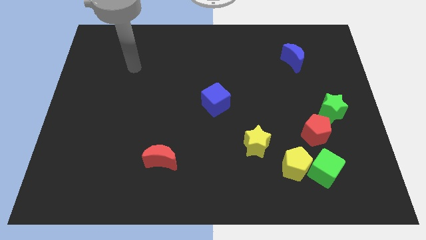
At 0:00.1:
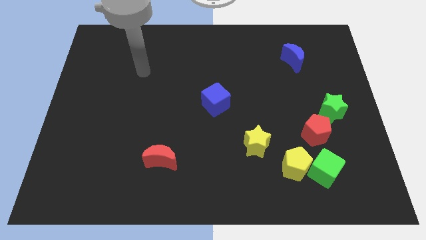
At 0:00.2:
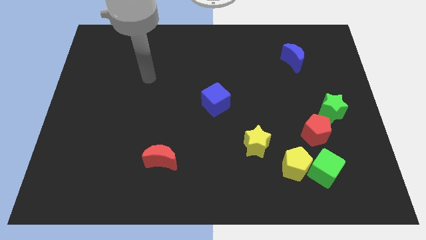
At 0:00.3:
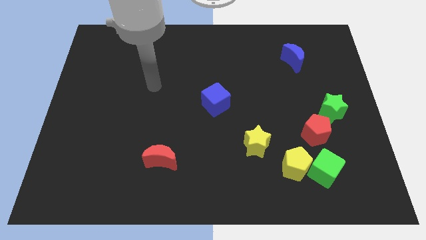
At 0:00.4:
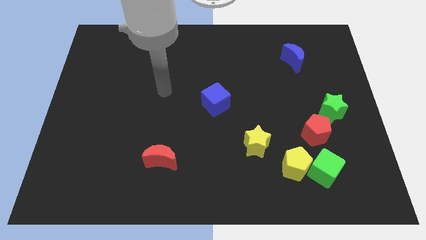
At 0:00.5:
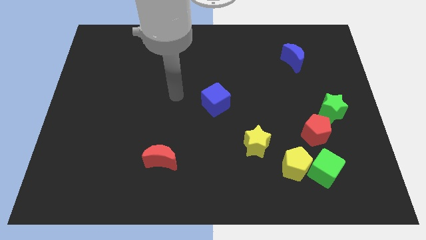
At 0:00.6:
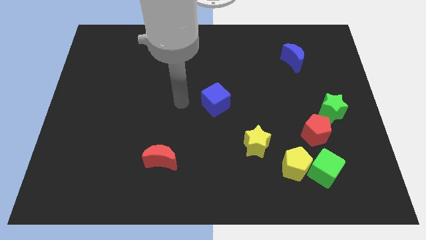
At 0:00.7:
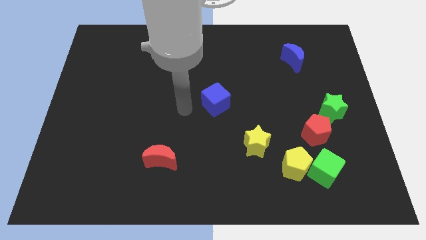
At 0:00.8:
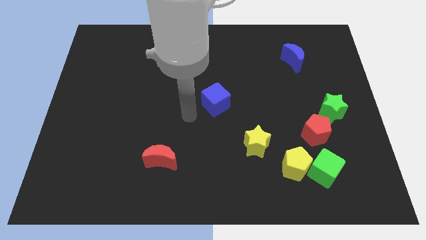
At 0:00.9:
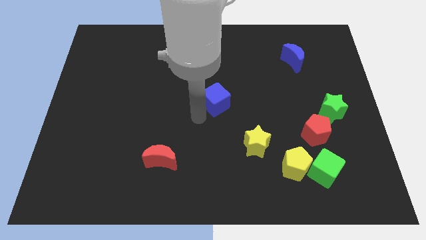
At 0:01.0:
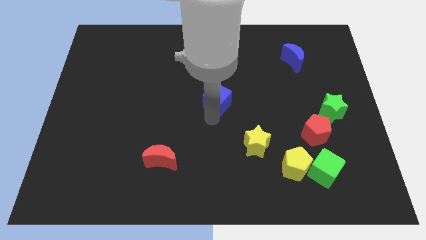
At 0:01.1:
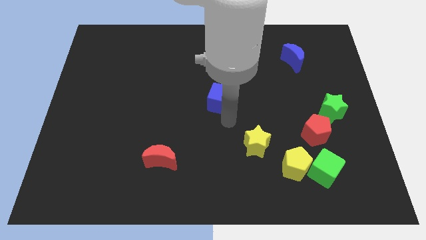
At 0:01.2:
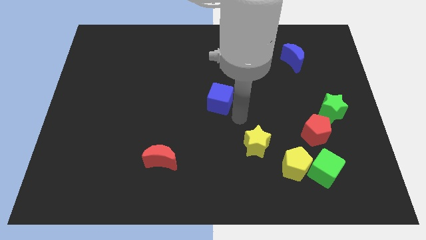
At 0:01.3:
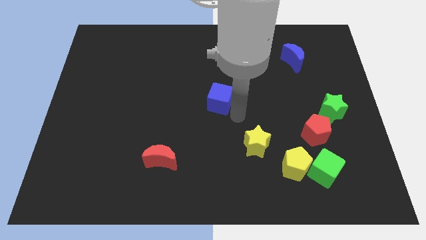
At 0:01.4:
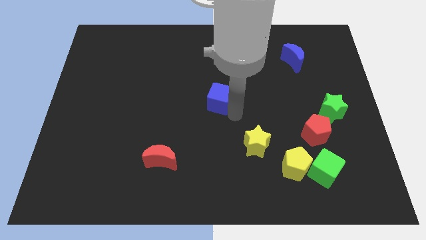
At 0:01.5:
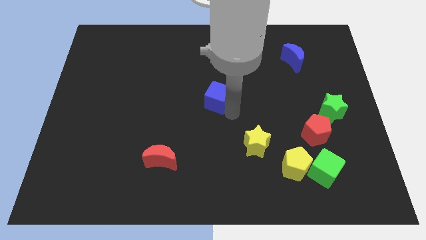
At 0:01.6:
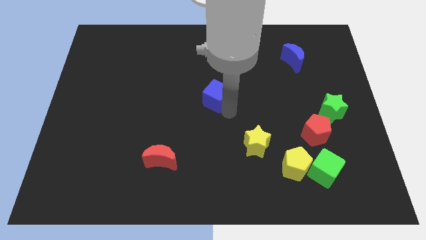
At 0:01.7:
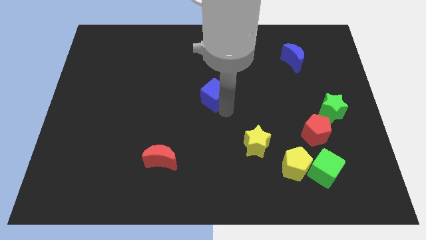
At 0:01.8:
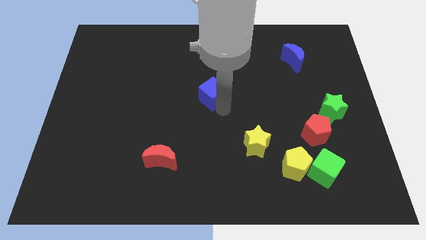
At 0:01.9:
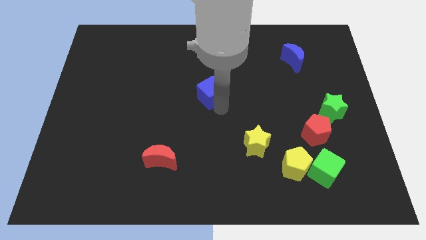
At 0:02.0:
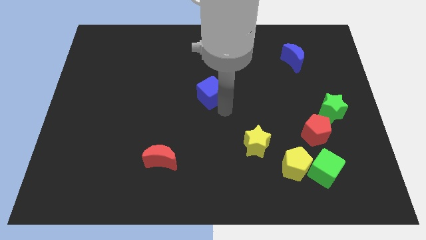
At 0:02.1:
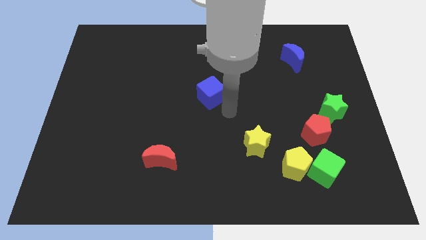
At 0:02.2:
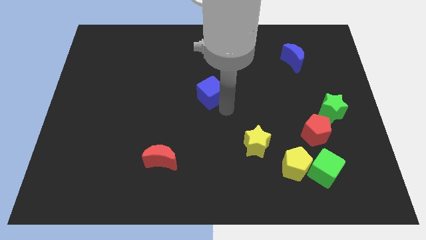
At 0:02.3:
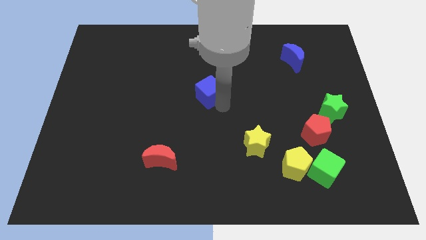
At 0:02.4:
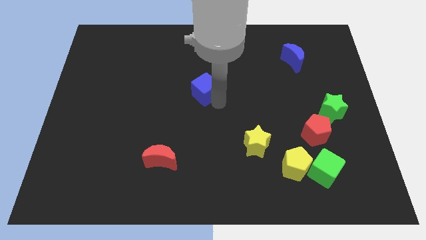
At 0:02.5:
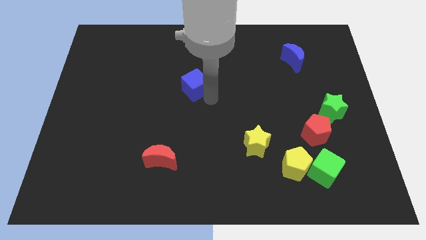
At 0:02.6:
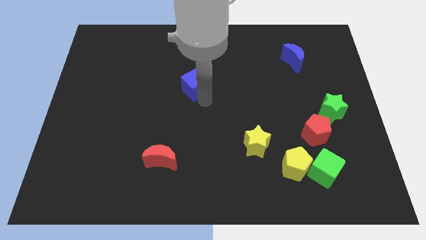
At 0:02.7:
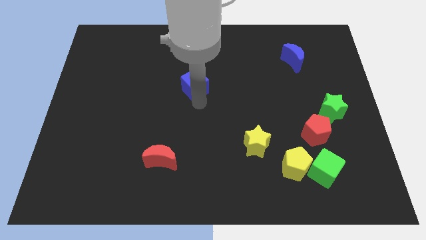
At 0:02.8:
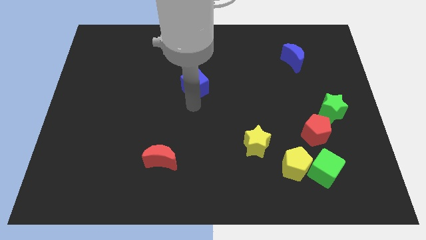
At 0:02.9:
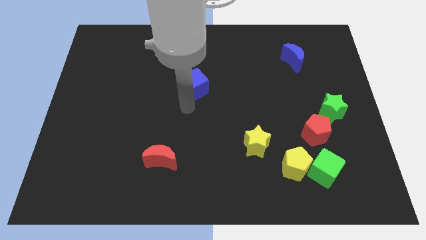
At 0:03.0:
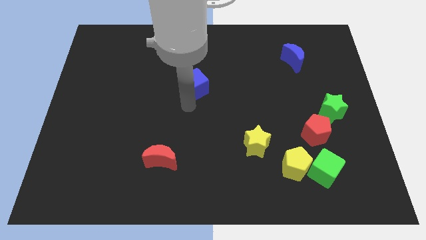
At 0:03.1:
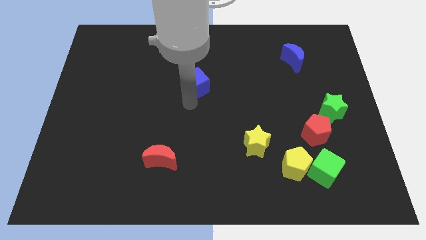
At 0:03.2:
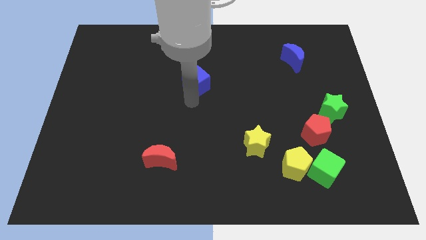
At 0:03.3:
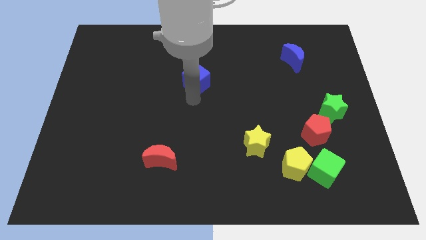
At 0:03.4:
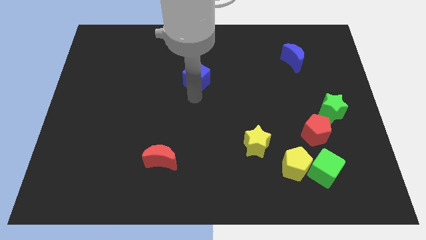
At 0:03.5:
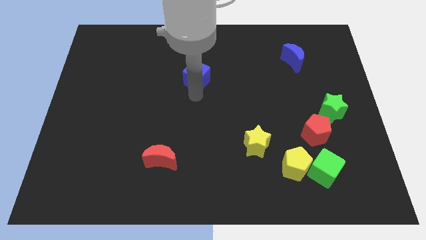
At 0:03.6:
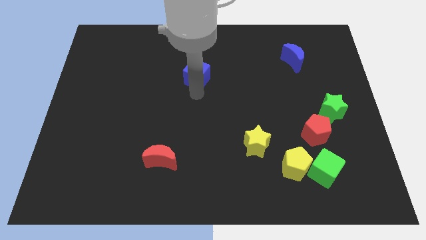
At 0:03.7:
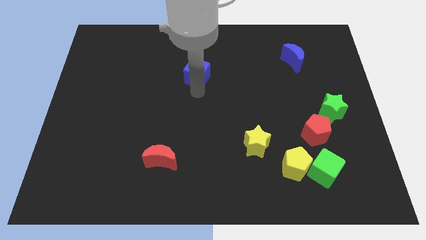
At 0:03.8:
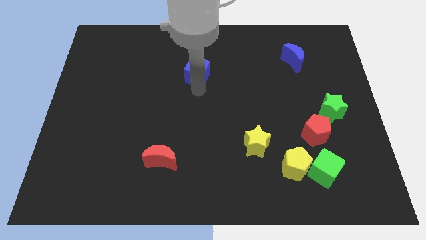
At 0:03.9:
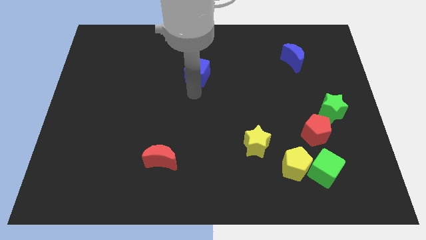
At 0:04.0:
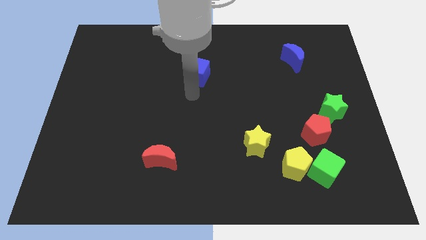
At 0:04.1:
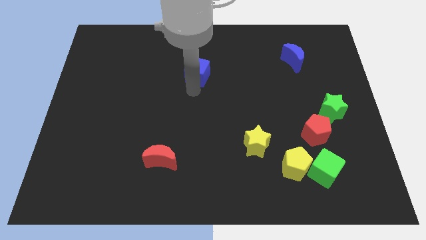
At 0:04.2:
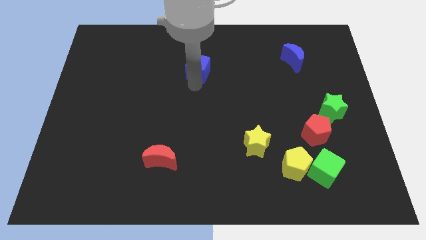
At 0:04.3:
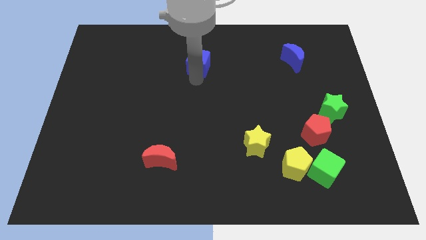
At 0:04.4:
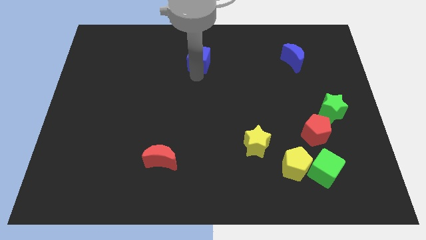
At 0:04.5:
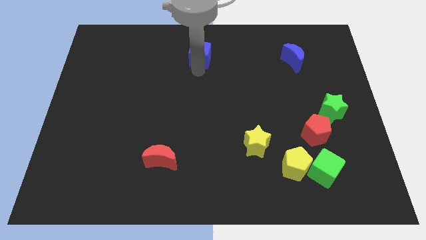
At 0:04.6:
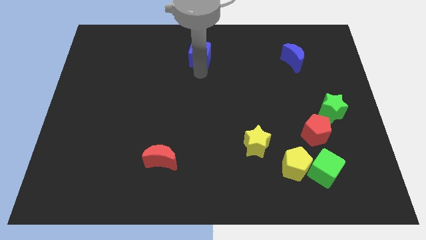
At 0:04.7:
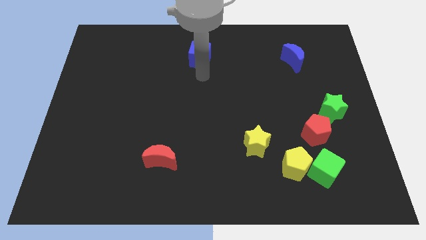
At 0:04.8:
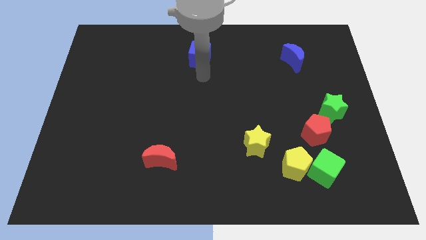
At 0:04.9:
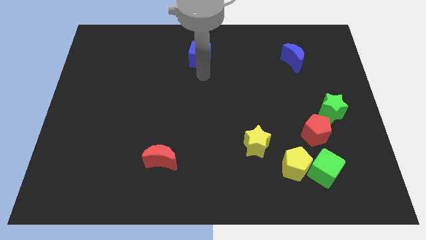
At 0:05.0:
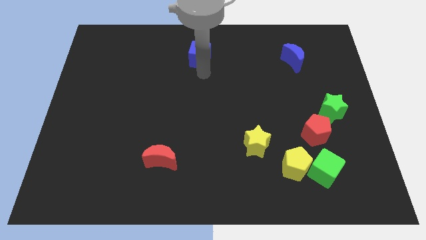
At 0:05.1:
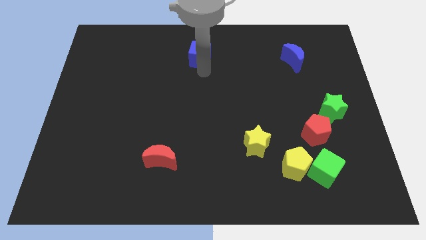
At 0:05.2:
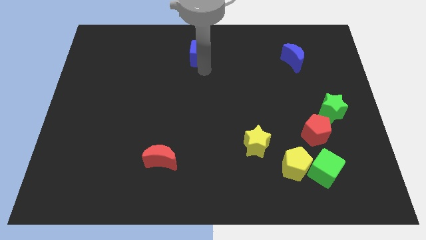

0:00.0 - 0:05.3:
put the blue cube to the top

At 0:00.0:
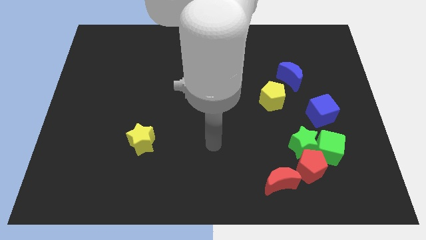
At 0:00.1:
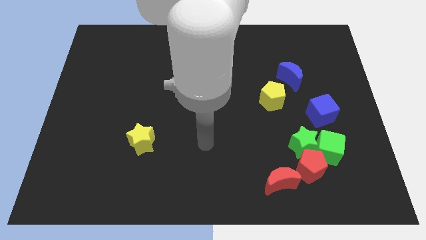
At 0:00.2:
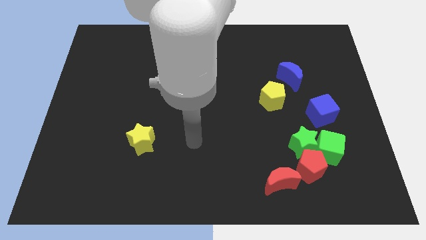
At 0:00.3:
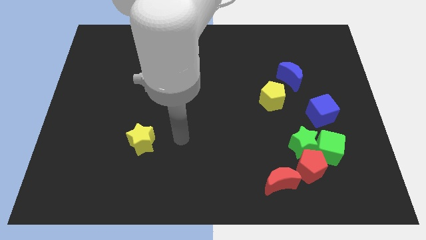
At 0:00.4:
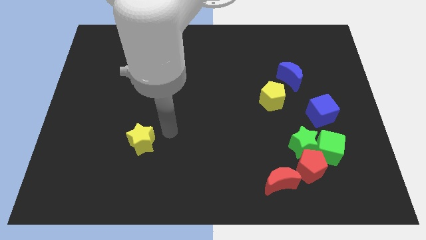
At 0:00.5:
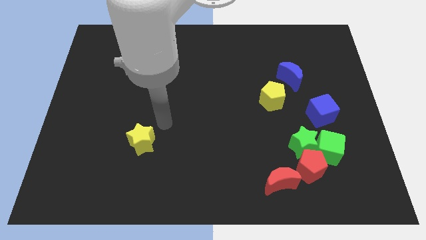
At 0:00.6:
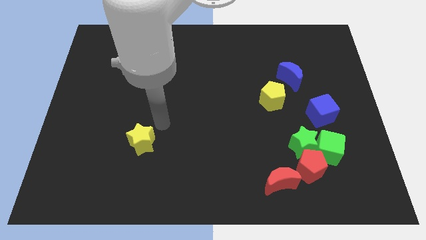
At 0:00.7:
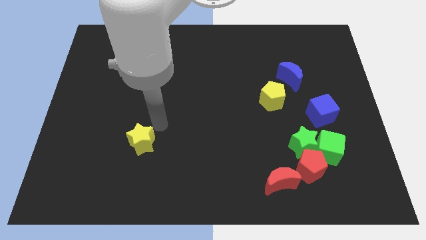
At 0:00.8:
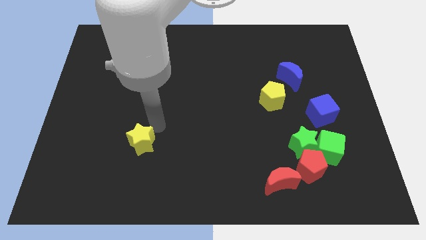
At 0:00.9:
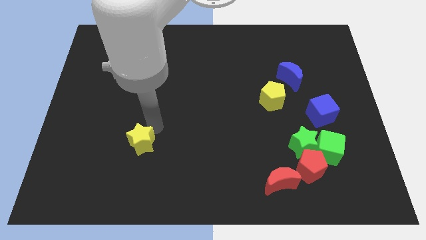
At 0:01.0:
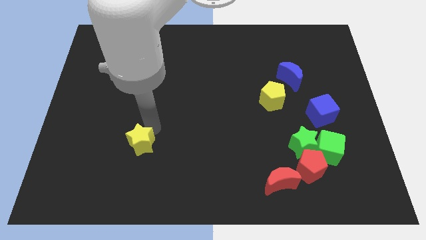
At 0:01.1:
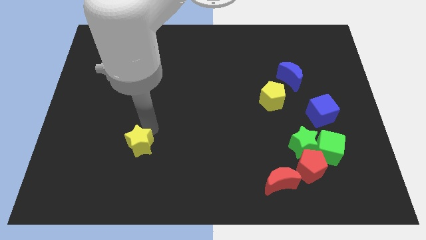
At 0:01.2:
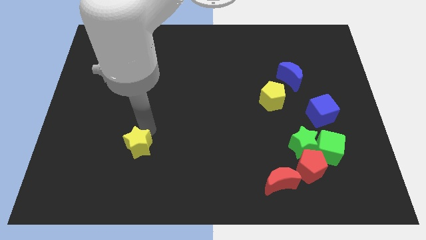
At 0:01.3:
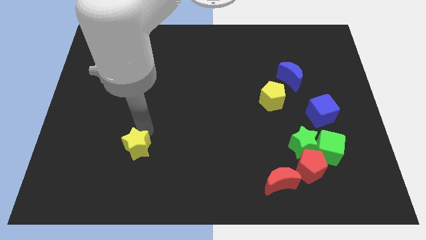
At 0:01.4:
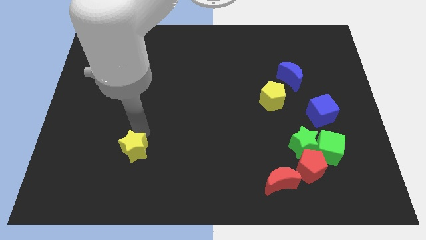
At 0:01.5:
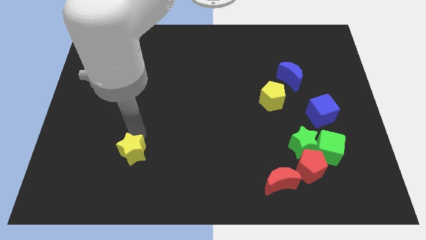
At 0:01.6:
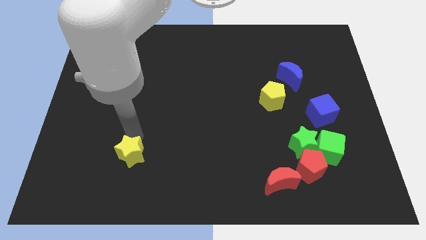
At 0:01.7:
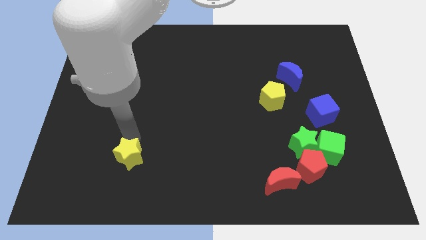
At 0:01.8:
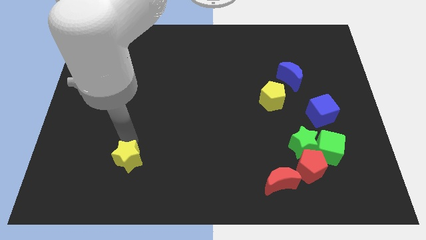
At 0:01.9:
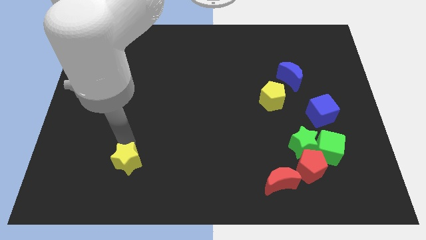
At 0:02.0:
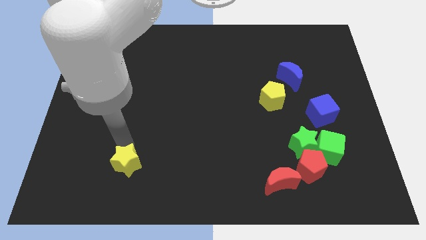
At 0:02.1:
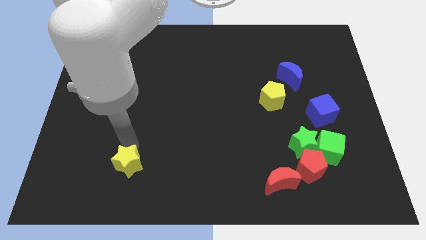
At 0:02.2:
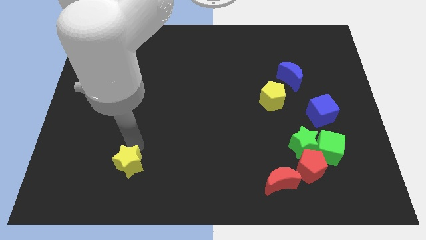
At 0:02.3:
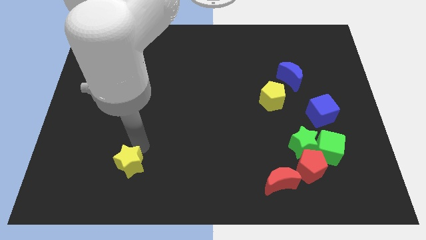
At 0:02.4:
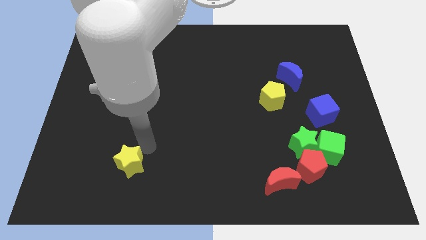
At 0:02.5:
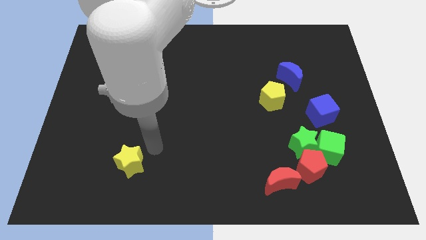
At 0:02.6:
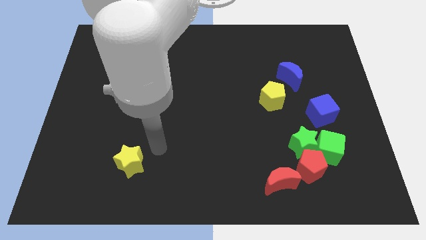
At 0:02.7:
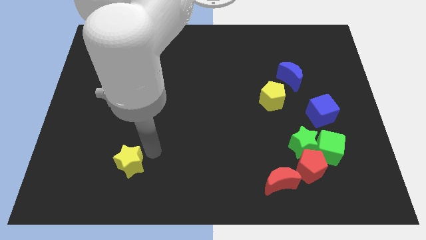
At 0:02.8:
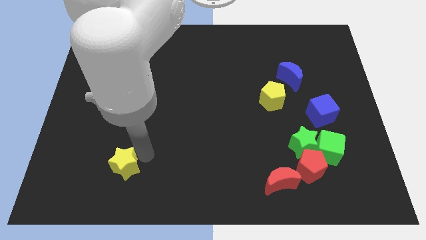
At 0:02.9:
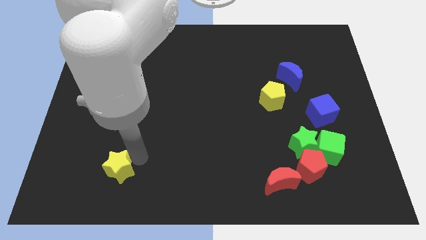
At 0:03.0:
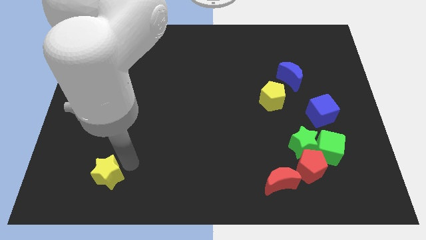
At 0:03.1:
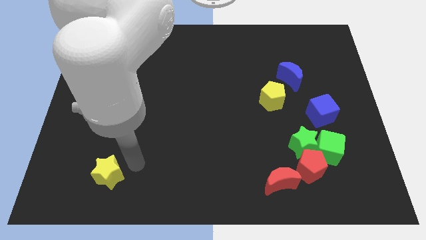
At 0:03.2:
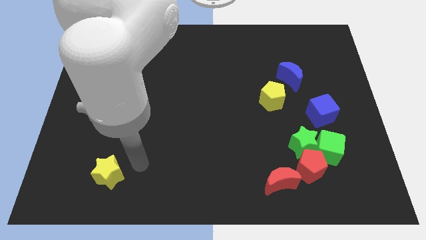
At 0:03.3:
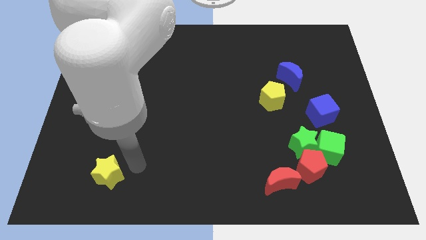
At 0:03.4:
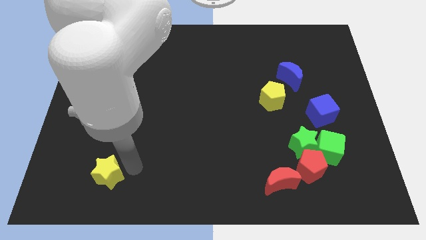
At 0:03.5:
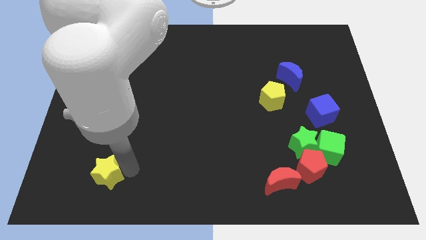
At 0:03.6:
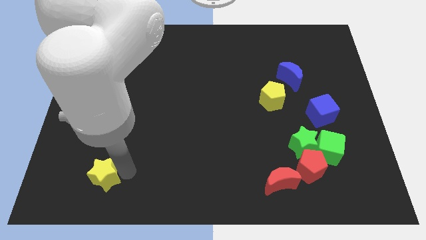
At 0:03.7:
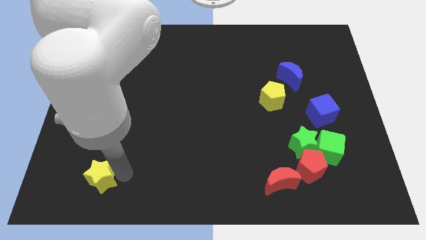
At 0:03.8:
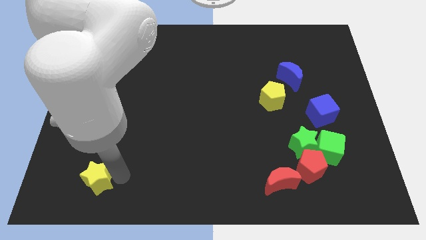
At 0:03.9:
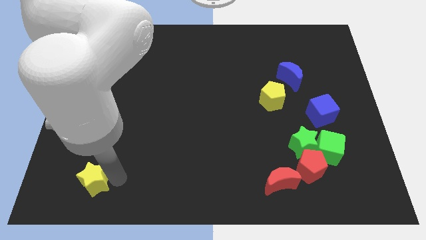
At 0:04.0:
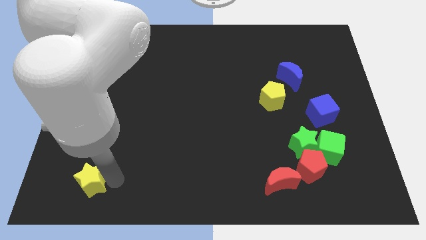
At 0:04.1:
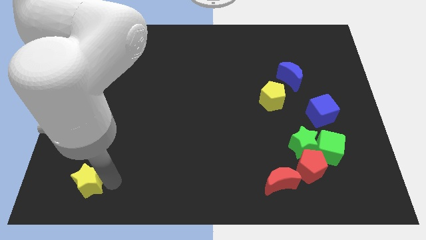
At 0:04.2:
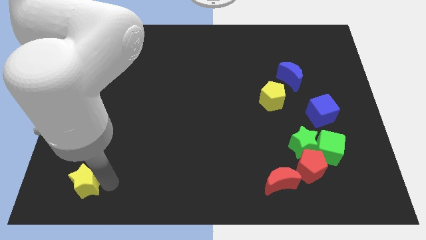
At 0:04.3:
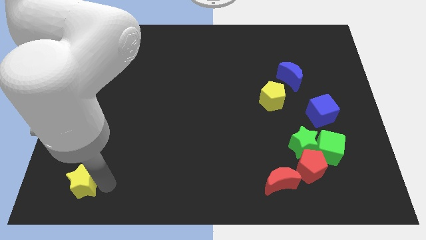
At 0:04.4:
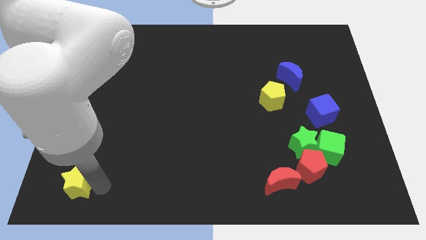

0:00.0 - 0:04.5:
move the yellow star to the bottom left
